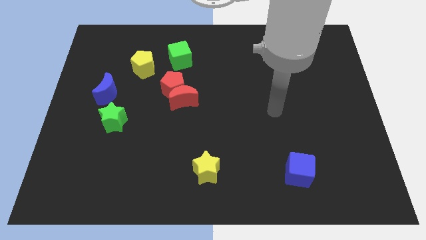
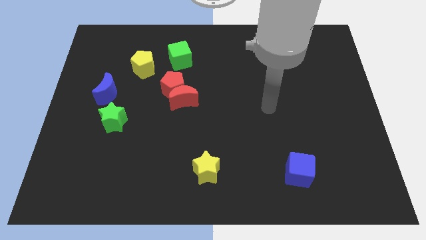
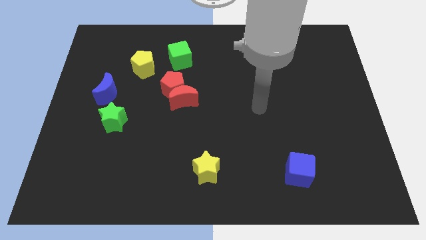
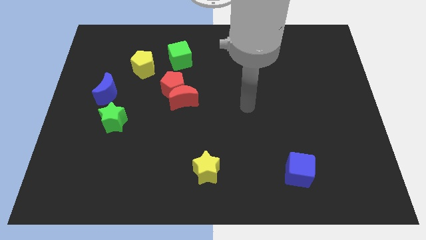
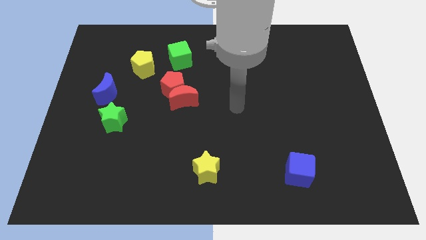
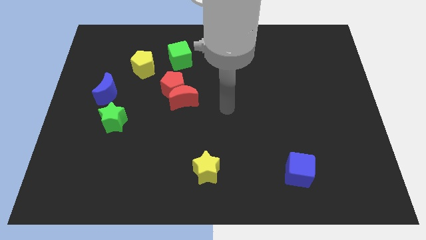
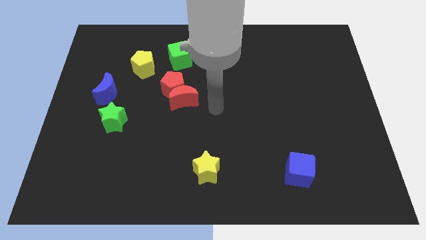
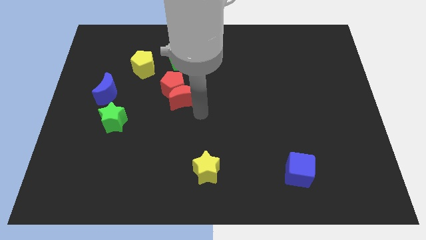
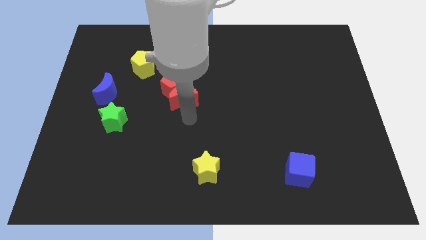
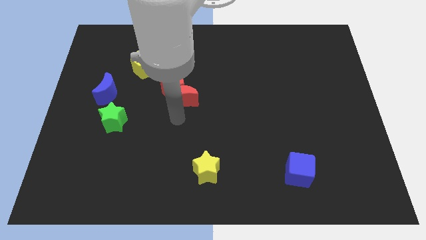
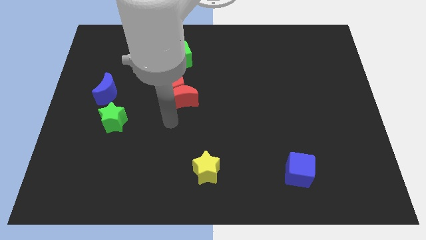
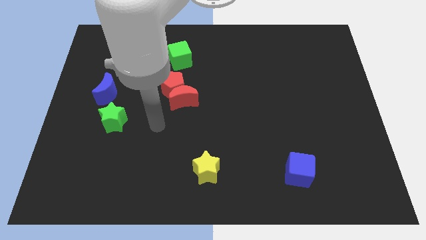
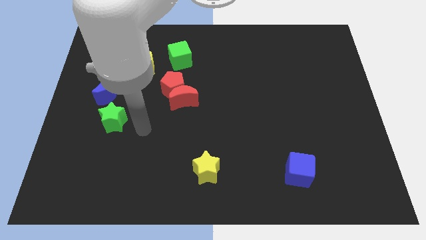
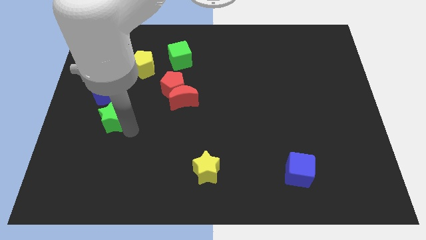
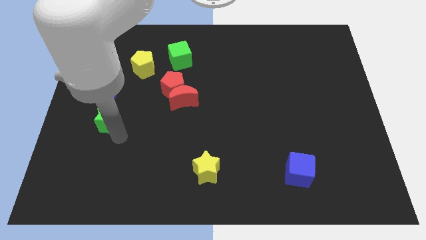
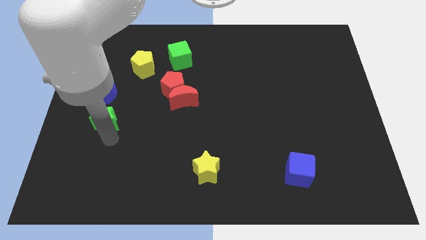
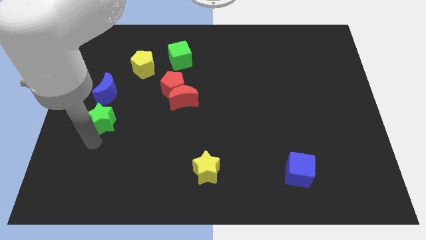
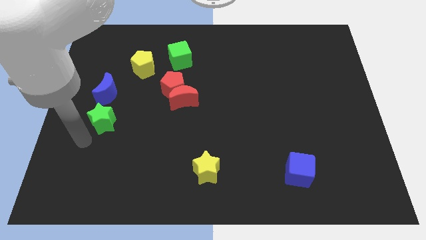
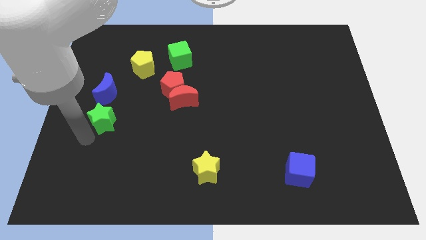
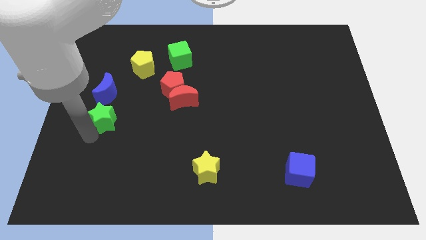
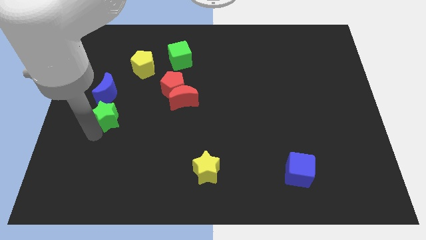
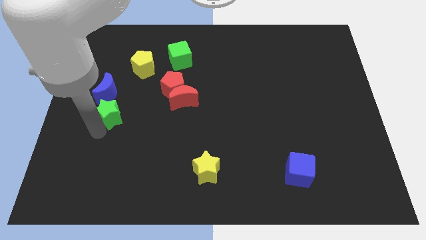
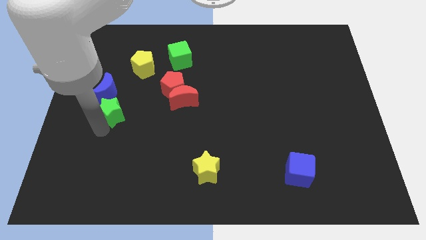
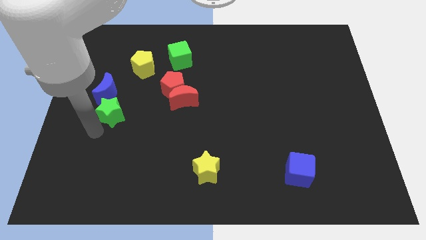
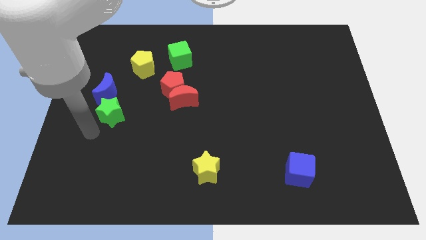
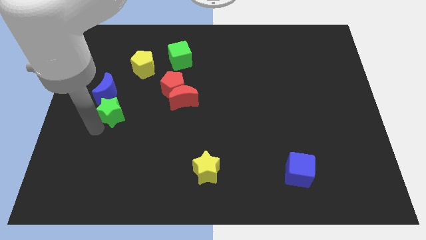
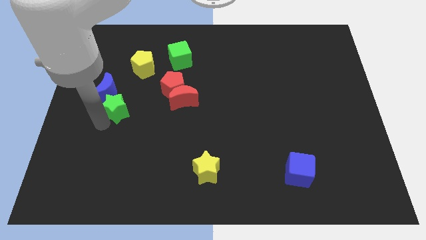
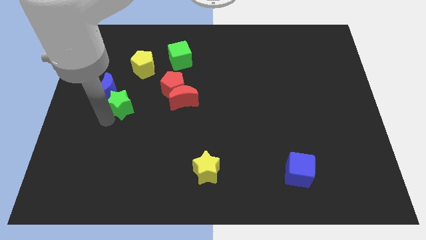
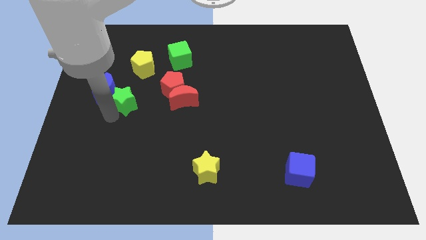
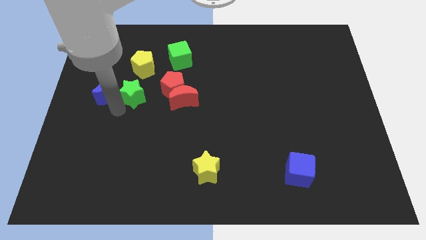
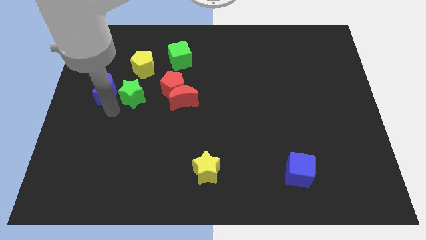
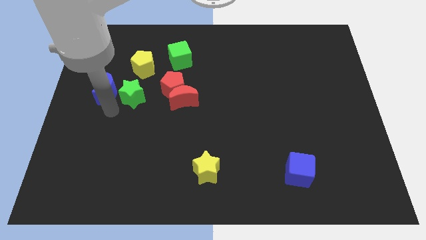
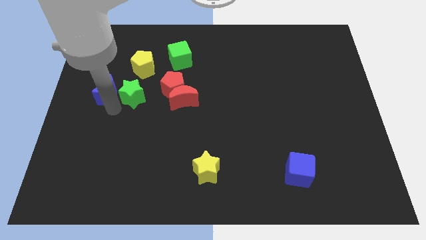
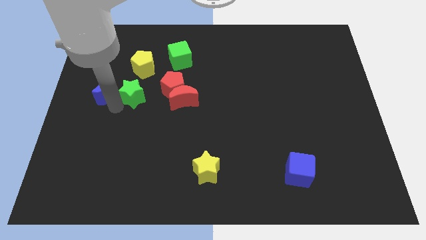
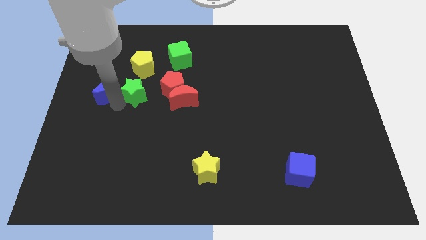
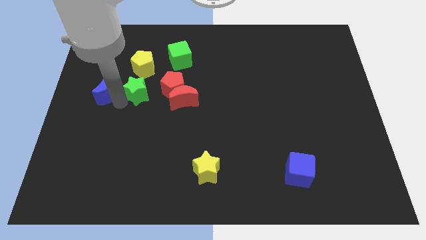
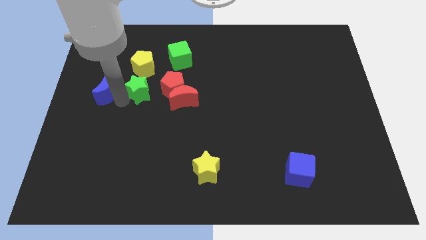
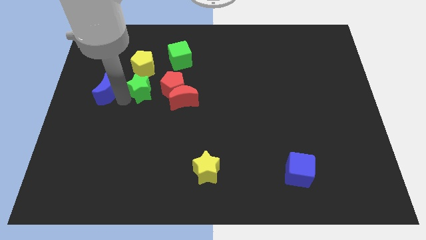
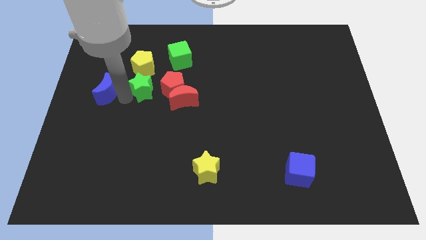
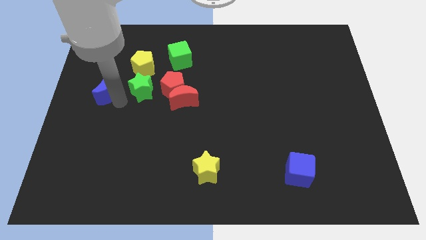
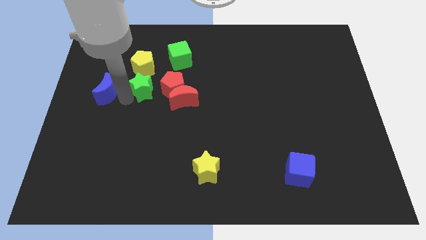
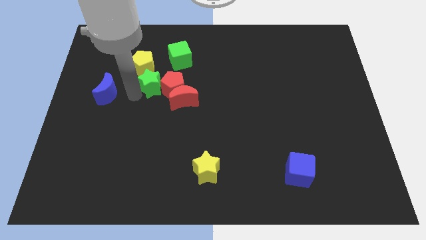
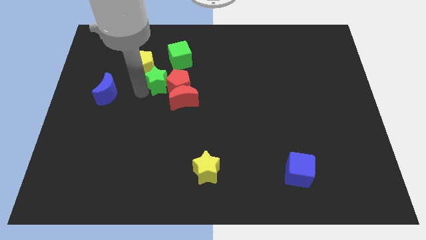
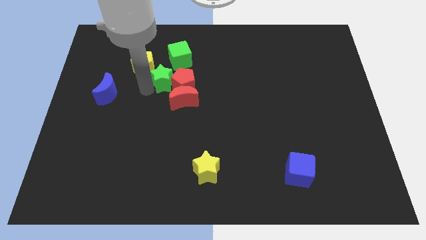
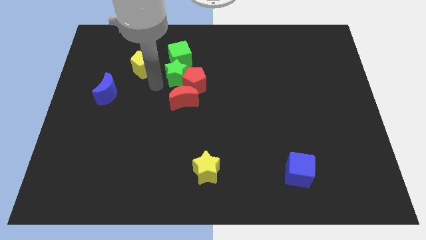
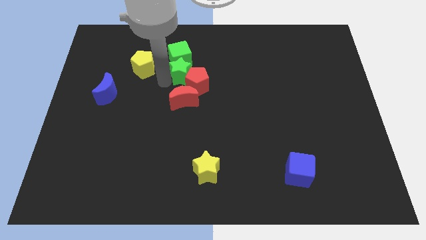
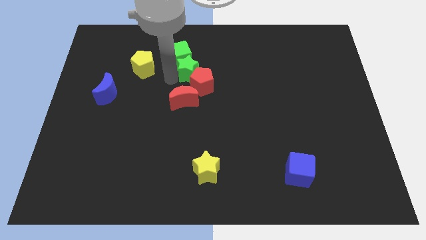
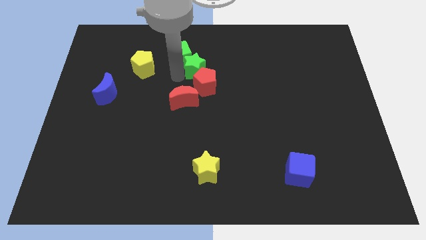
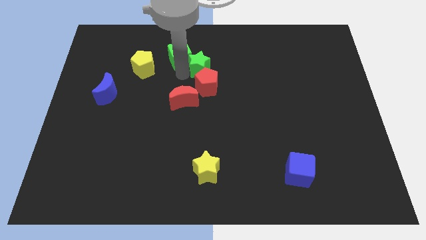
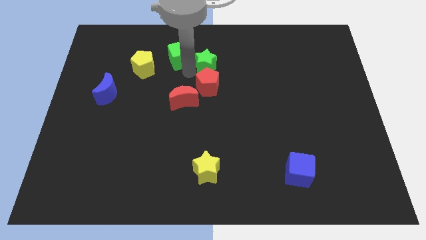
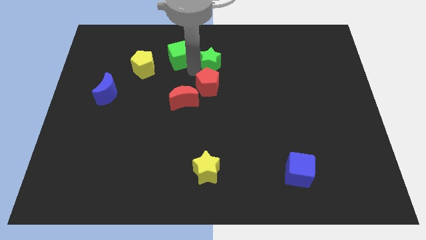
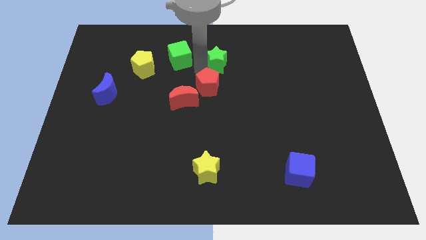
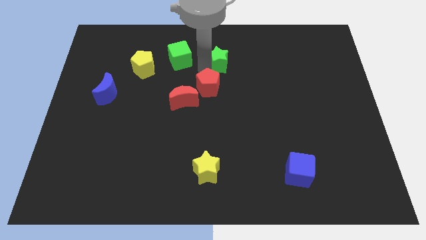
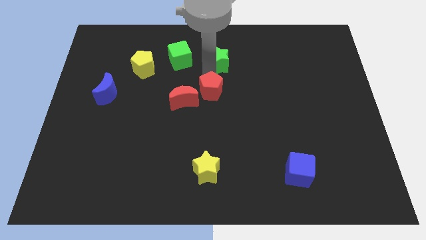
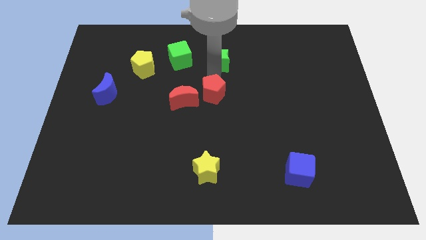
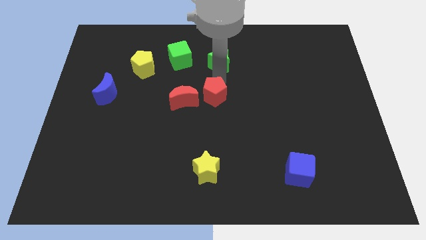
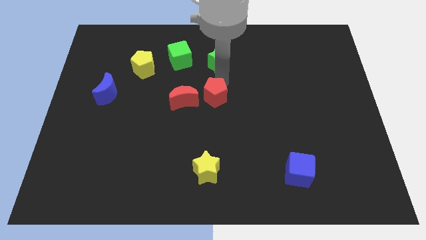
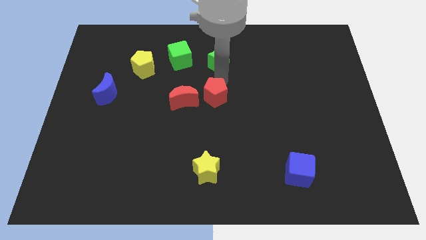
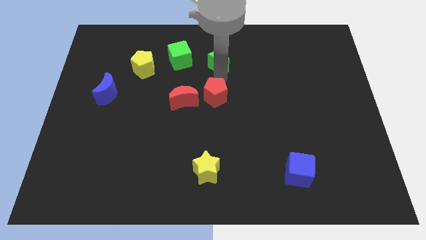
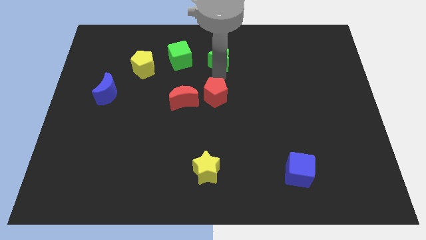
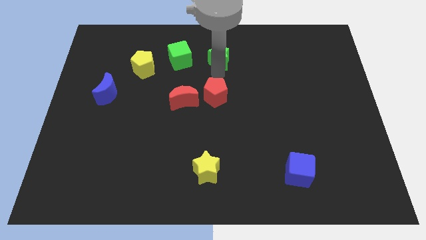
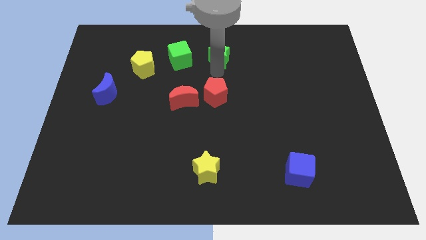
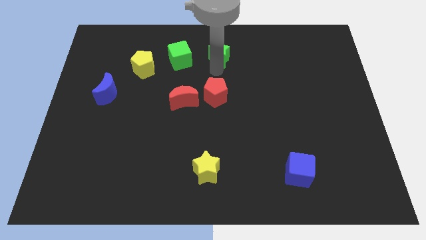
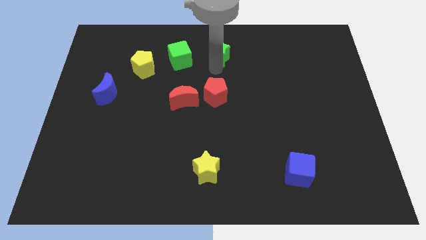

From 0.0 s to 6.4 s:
put the green star to the top
